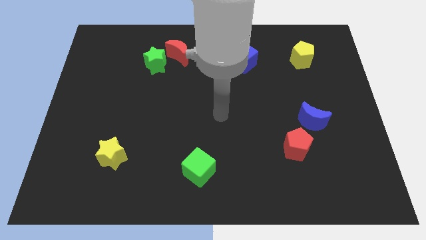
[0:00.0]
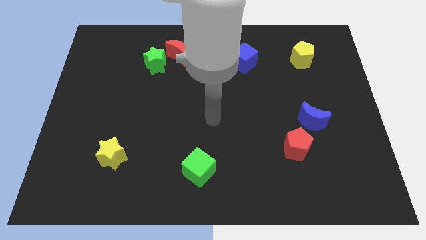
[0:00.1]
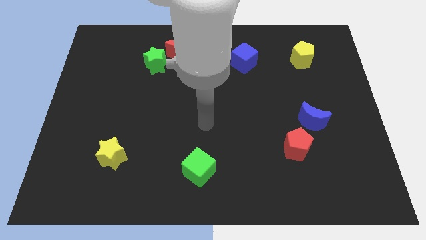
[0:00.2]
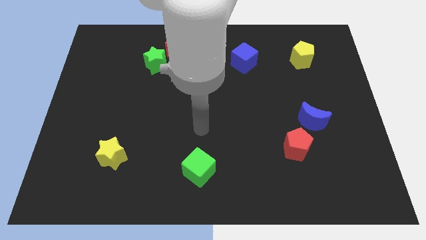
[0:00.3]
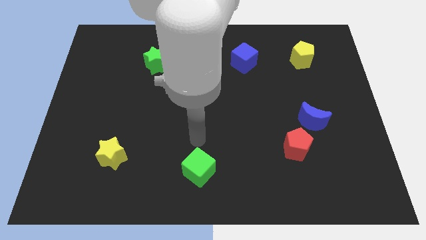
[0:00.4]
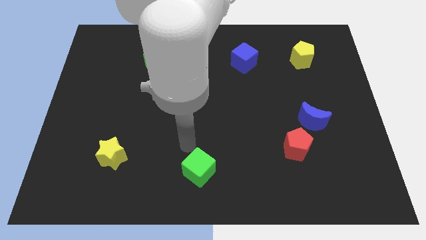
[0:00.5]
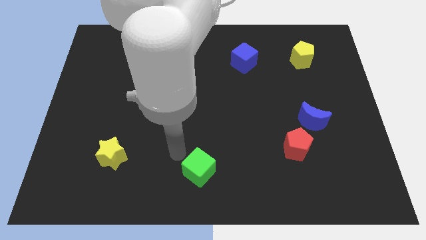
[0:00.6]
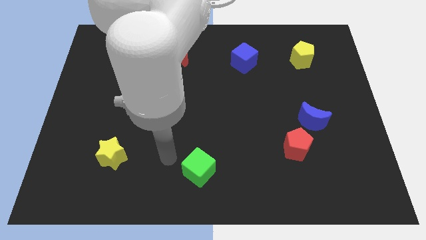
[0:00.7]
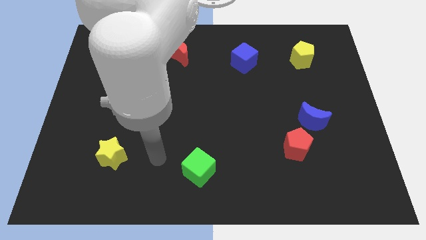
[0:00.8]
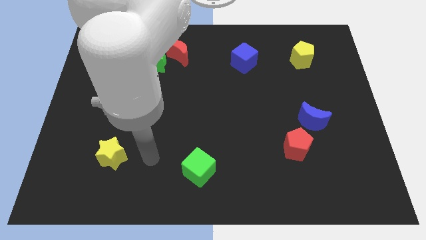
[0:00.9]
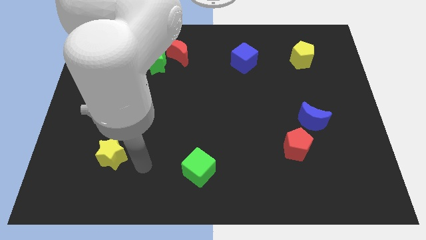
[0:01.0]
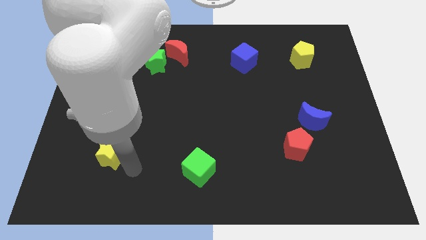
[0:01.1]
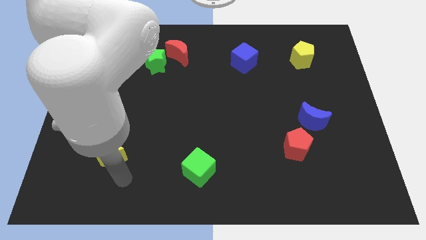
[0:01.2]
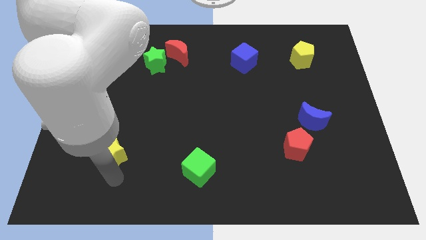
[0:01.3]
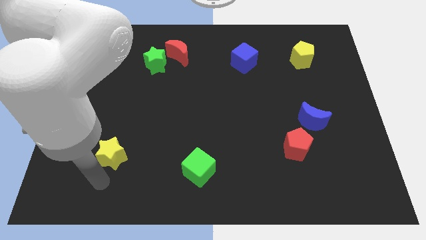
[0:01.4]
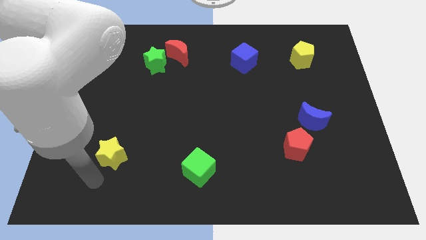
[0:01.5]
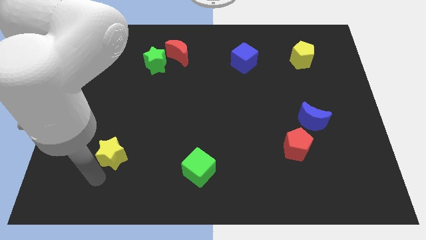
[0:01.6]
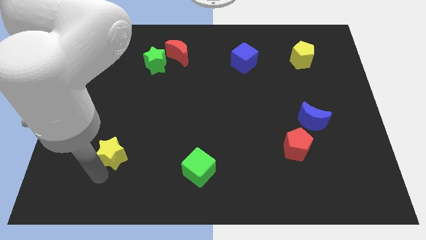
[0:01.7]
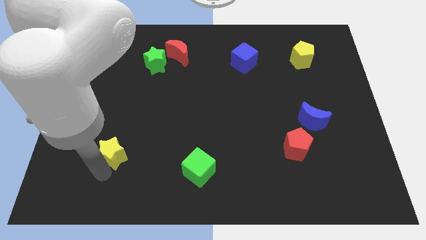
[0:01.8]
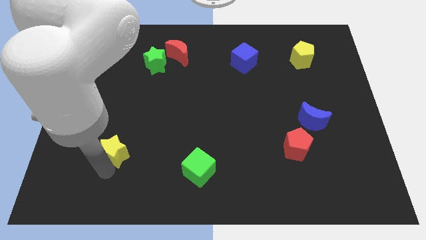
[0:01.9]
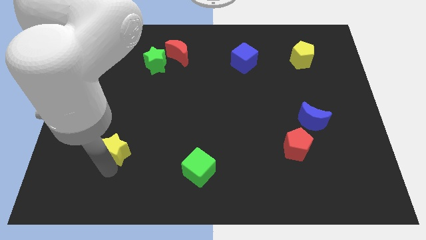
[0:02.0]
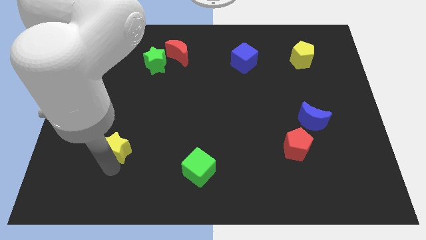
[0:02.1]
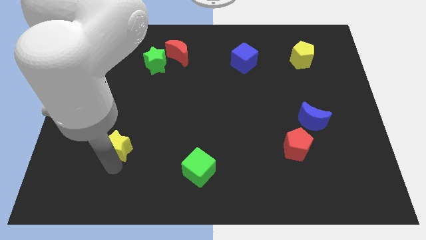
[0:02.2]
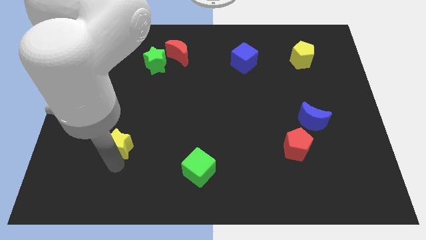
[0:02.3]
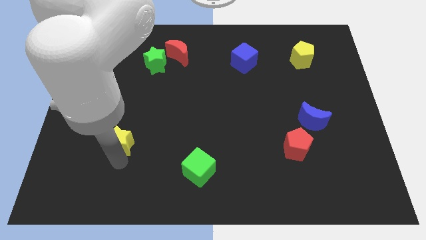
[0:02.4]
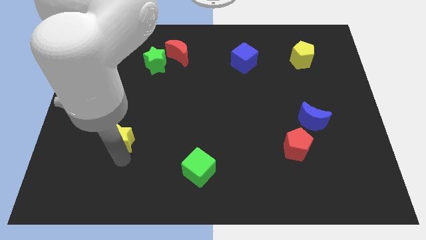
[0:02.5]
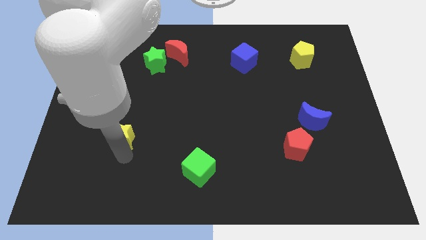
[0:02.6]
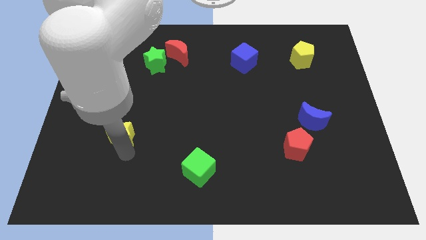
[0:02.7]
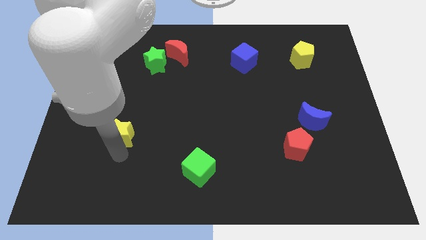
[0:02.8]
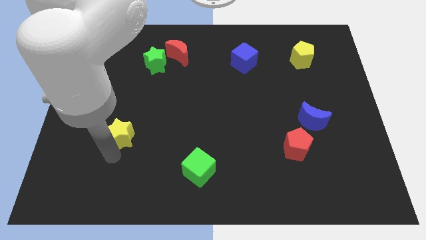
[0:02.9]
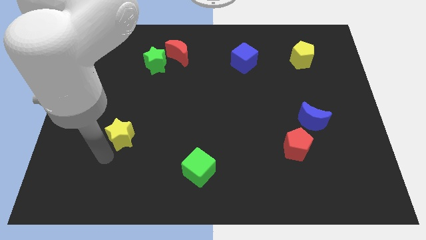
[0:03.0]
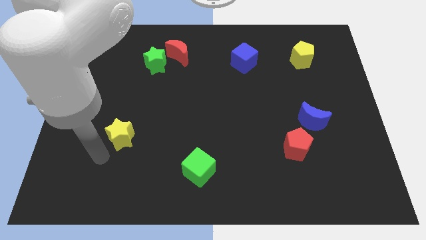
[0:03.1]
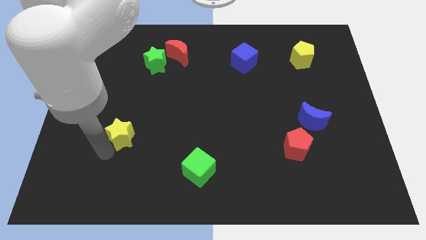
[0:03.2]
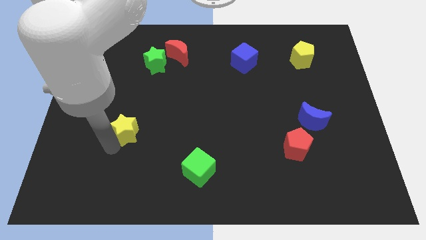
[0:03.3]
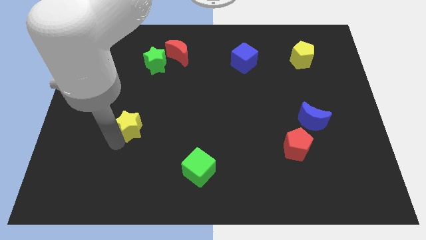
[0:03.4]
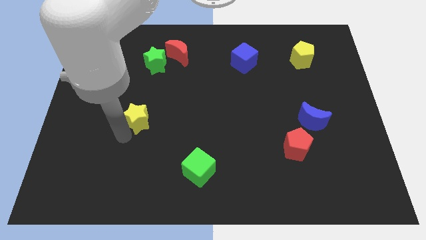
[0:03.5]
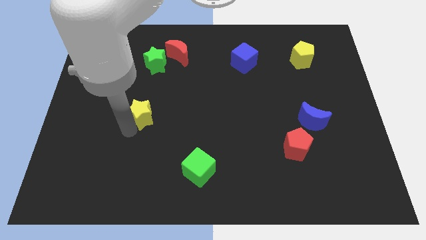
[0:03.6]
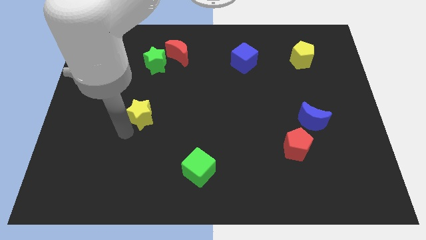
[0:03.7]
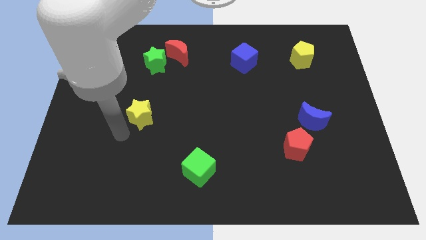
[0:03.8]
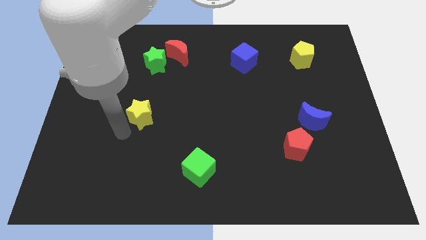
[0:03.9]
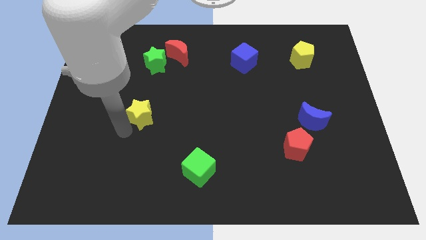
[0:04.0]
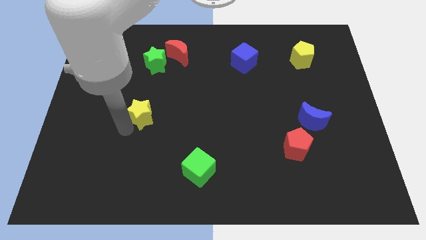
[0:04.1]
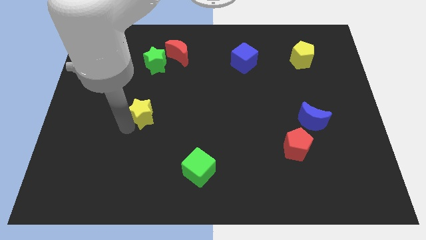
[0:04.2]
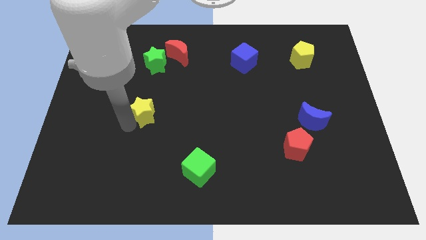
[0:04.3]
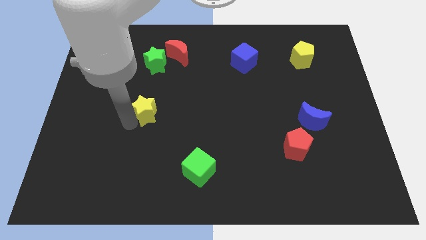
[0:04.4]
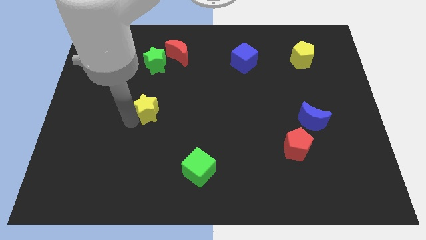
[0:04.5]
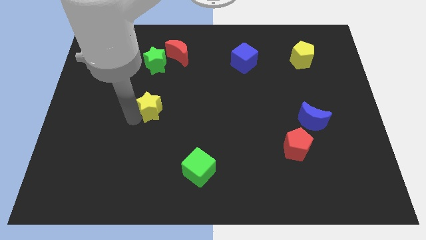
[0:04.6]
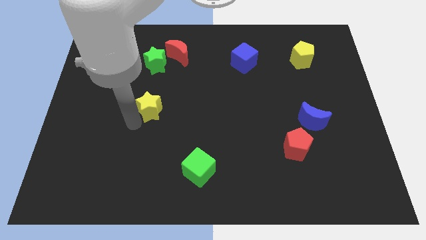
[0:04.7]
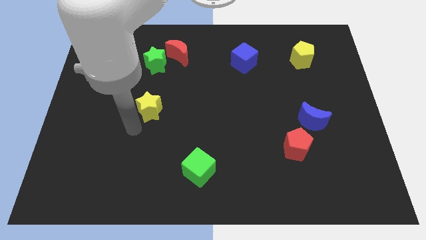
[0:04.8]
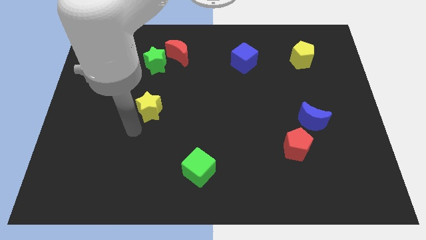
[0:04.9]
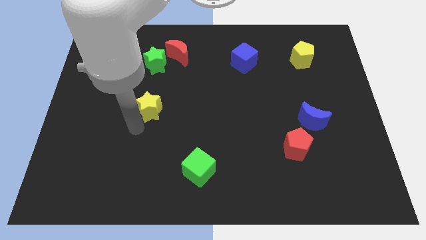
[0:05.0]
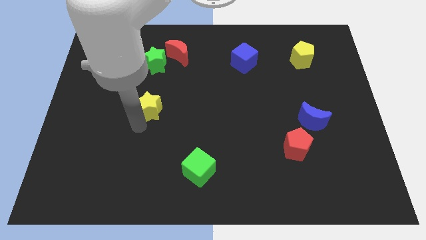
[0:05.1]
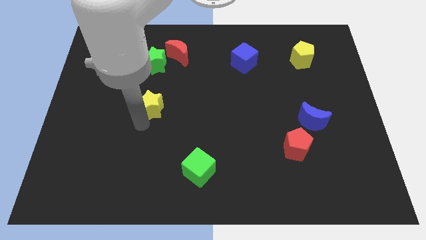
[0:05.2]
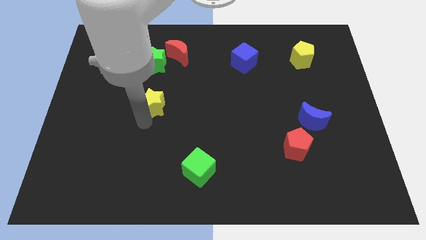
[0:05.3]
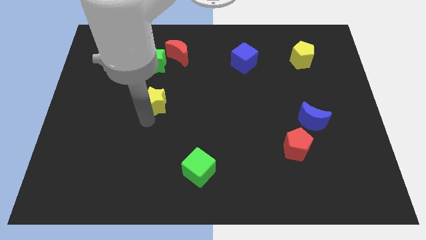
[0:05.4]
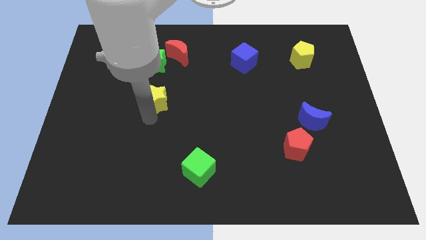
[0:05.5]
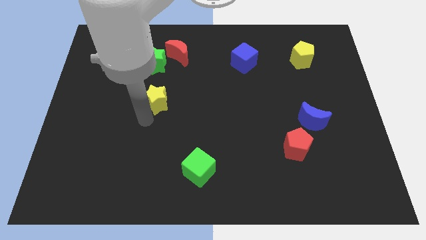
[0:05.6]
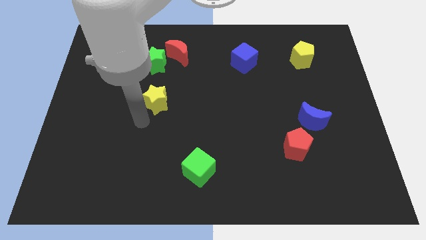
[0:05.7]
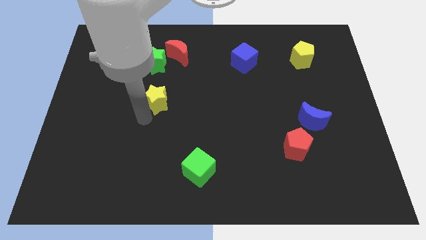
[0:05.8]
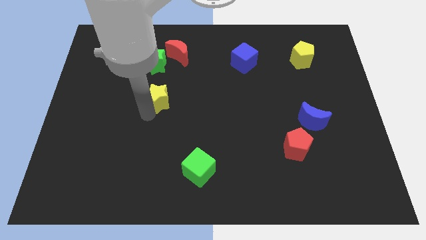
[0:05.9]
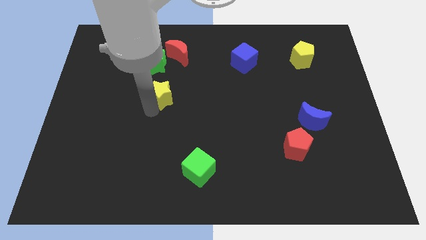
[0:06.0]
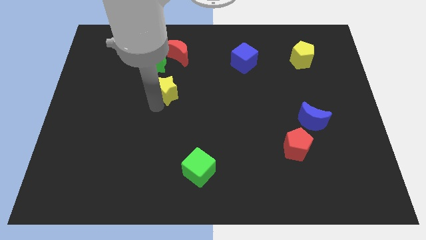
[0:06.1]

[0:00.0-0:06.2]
push the yellow star diagonally down and to the right of the green star
